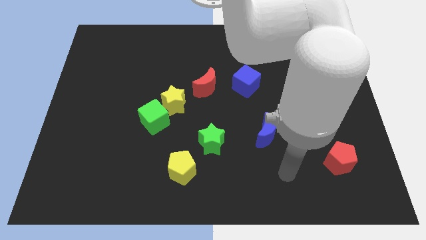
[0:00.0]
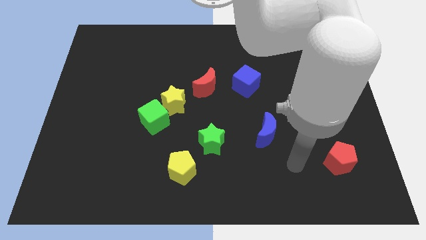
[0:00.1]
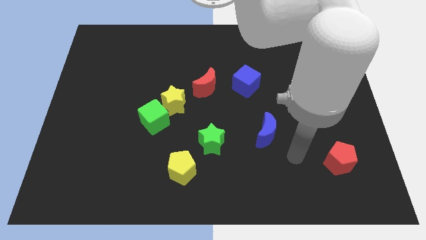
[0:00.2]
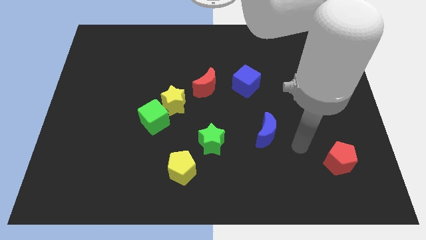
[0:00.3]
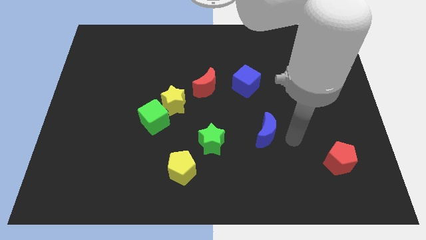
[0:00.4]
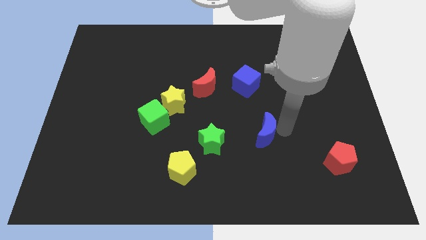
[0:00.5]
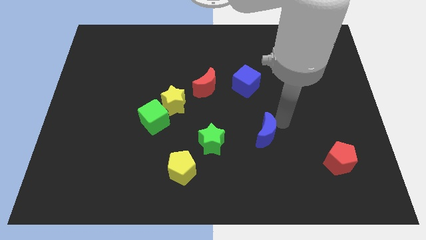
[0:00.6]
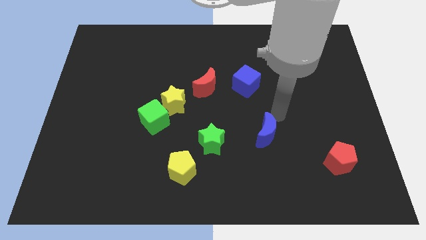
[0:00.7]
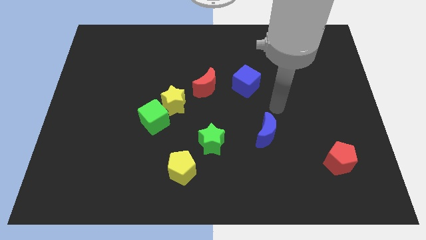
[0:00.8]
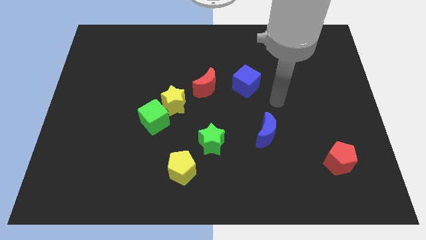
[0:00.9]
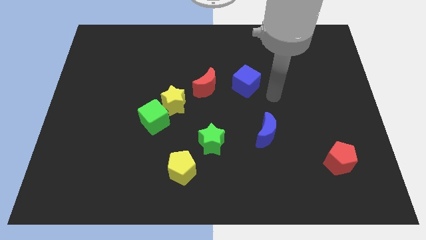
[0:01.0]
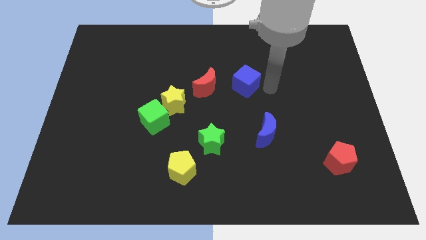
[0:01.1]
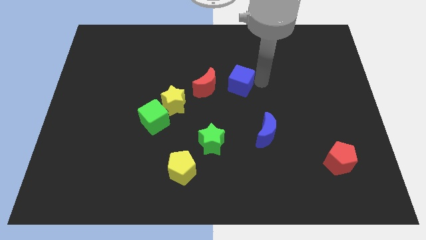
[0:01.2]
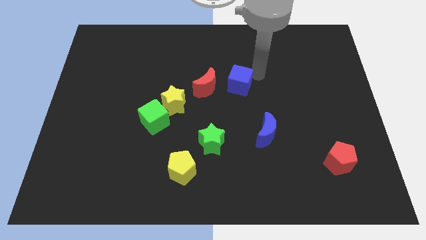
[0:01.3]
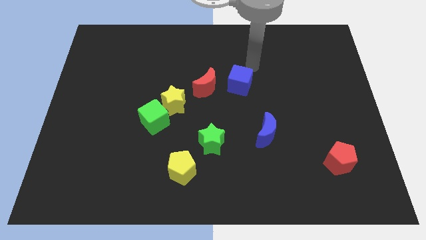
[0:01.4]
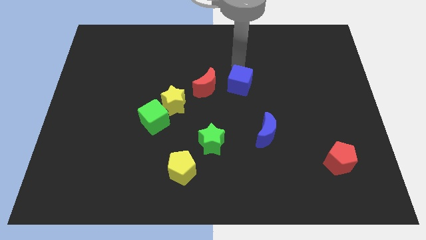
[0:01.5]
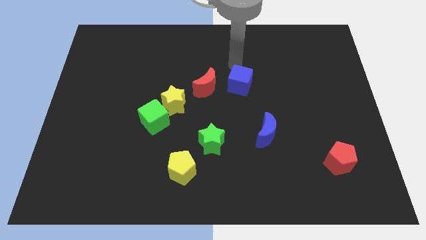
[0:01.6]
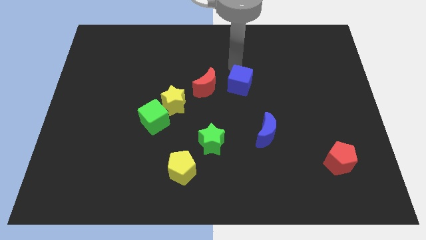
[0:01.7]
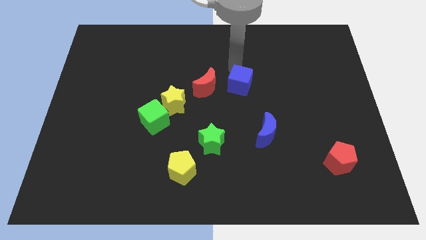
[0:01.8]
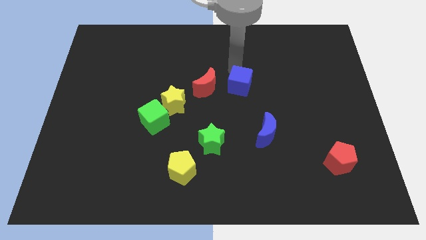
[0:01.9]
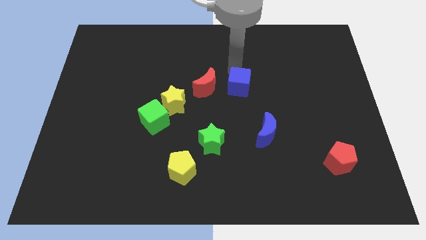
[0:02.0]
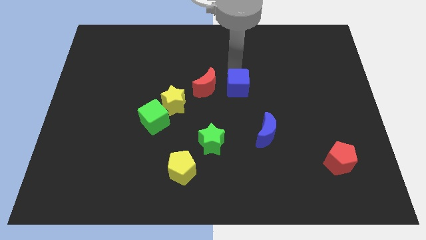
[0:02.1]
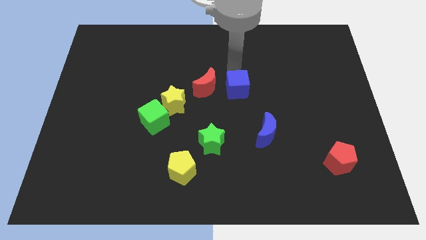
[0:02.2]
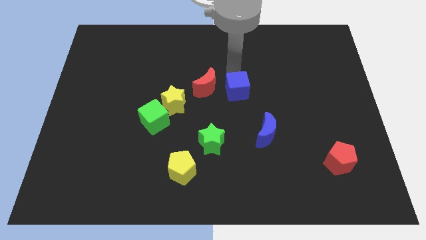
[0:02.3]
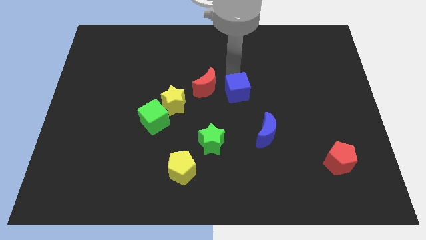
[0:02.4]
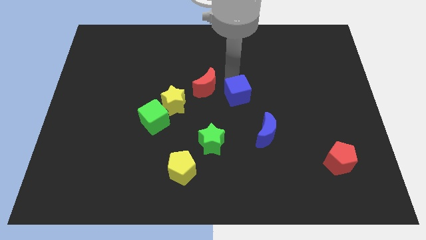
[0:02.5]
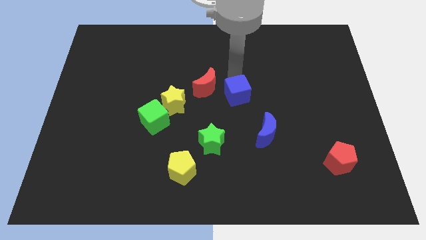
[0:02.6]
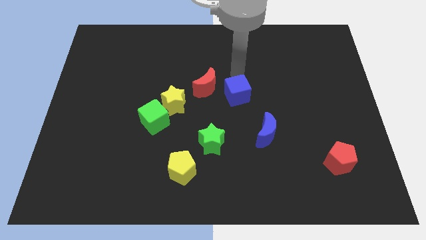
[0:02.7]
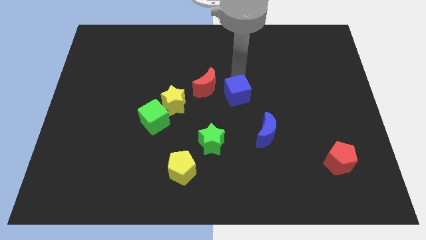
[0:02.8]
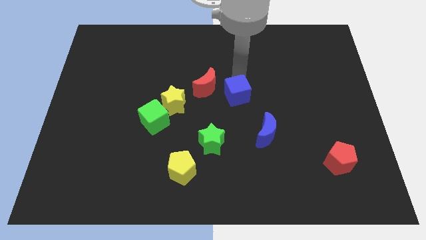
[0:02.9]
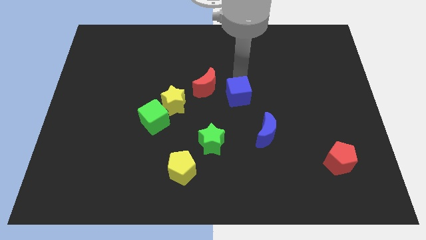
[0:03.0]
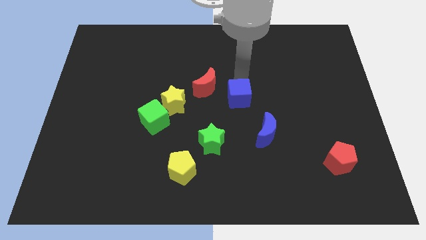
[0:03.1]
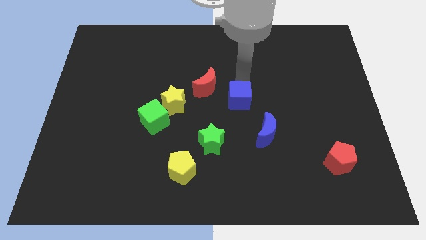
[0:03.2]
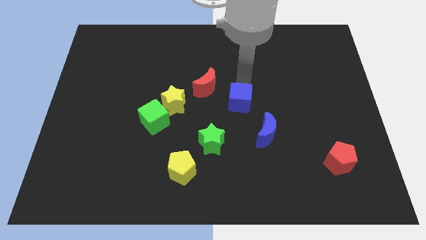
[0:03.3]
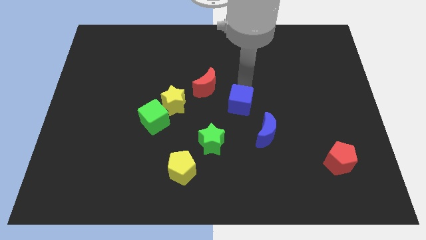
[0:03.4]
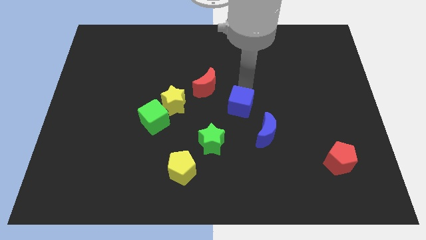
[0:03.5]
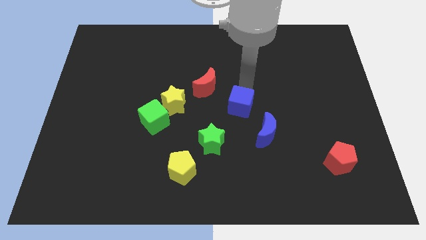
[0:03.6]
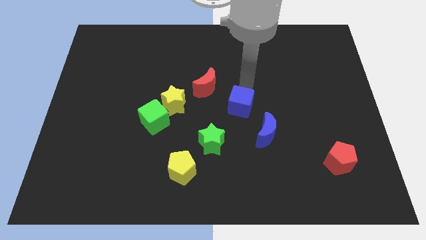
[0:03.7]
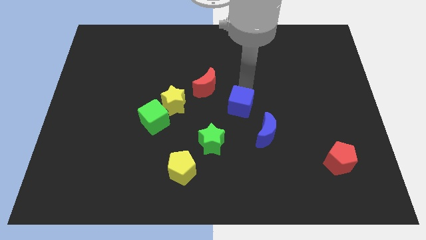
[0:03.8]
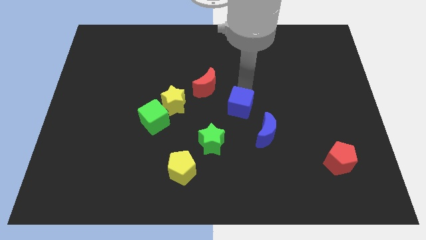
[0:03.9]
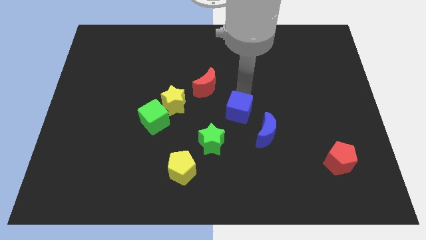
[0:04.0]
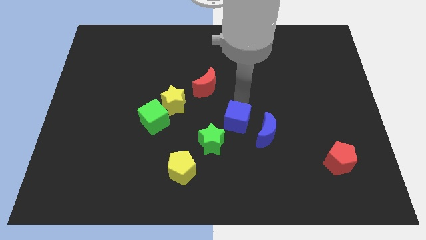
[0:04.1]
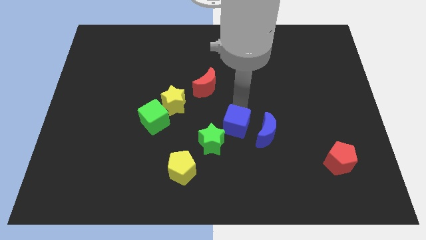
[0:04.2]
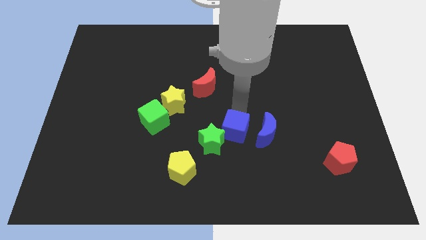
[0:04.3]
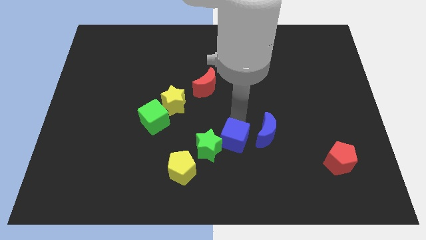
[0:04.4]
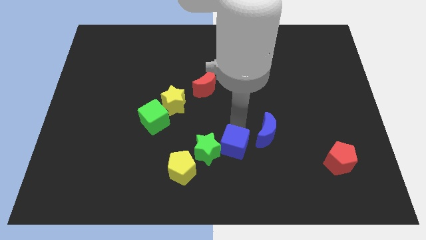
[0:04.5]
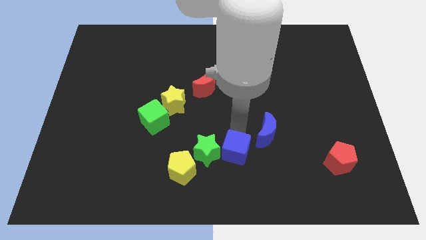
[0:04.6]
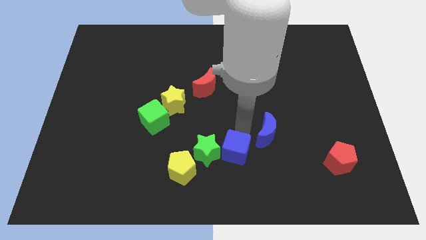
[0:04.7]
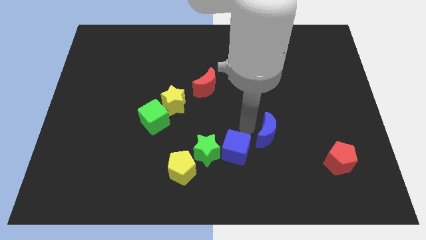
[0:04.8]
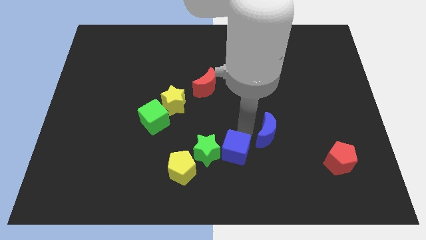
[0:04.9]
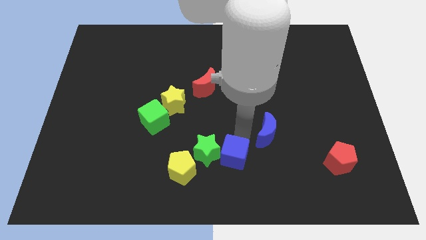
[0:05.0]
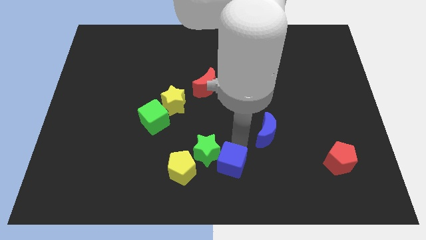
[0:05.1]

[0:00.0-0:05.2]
push the blue cube to the bottom side

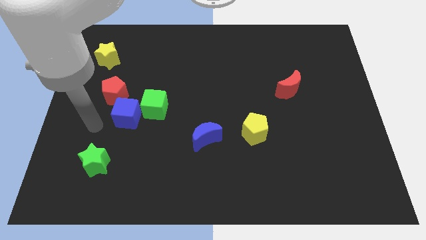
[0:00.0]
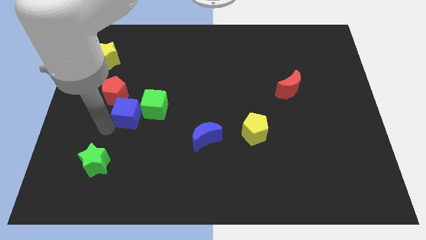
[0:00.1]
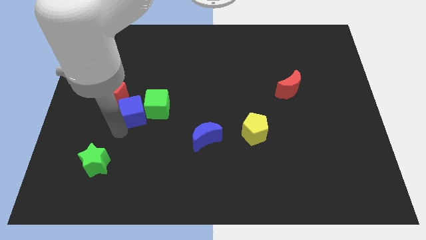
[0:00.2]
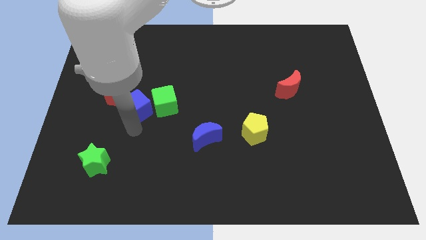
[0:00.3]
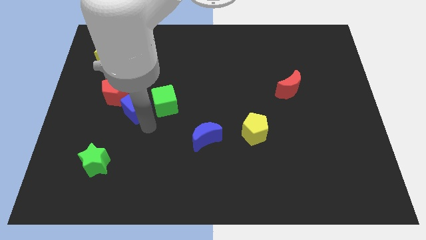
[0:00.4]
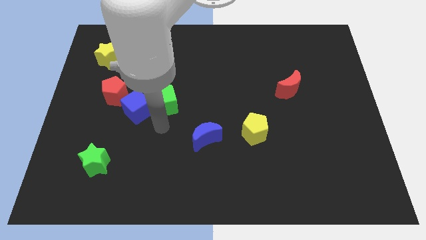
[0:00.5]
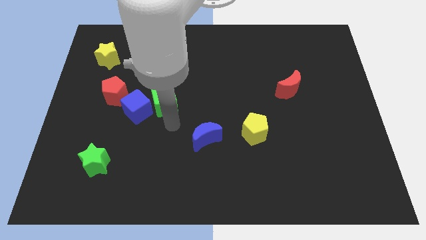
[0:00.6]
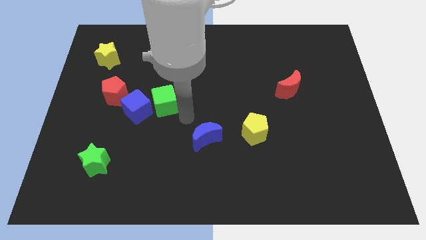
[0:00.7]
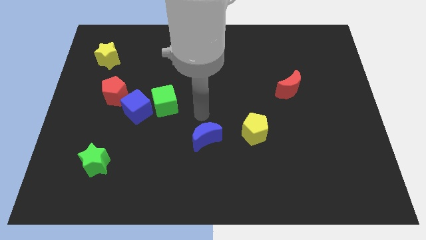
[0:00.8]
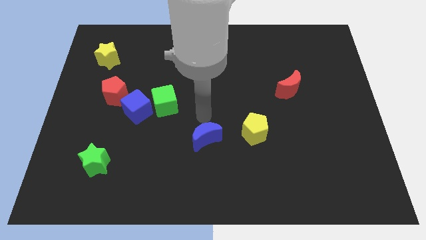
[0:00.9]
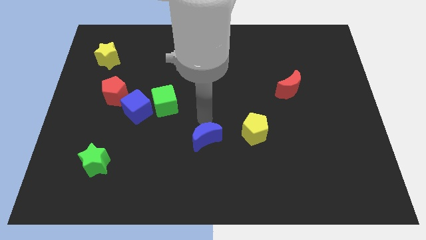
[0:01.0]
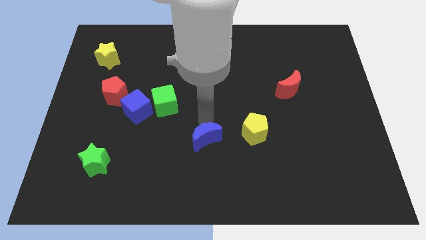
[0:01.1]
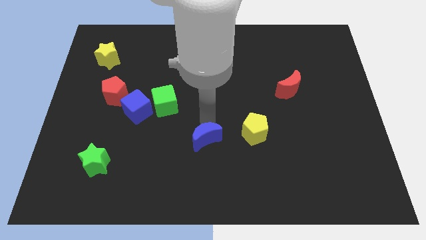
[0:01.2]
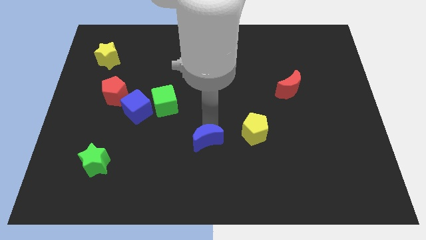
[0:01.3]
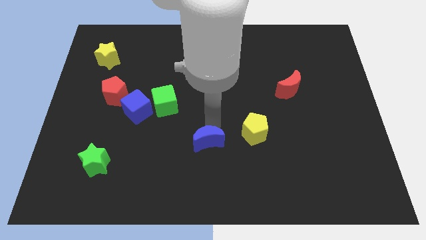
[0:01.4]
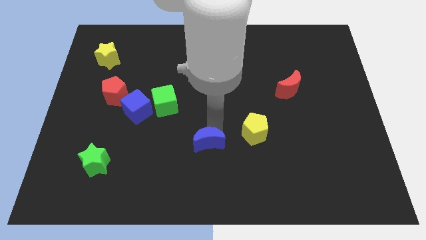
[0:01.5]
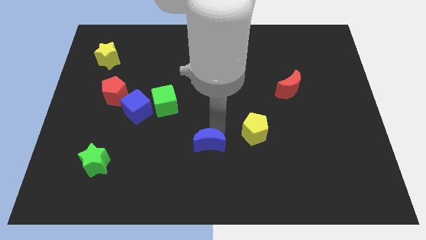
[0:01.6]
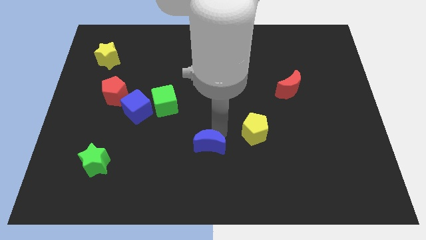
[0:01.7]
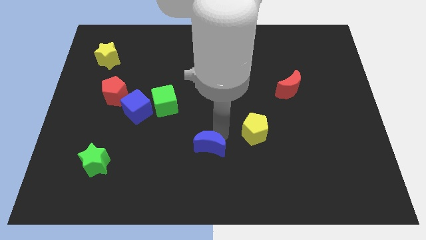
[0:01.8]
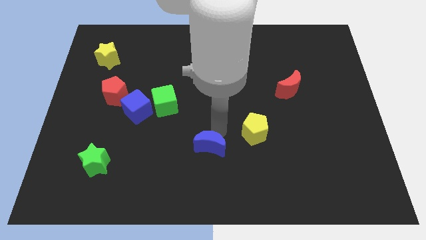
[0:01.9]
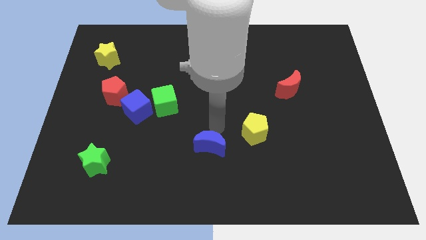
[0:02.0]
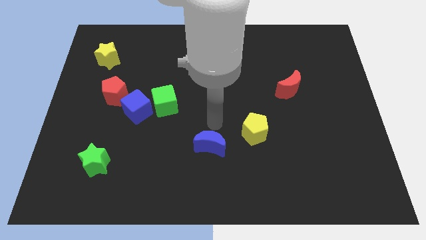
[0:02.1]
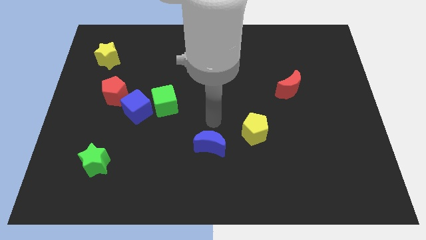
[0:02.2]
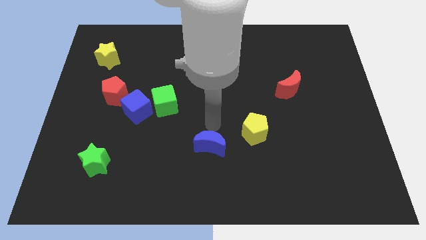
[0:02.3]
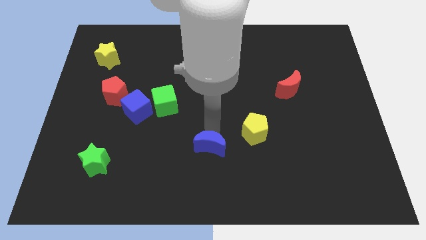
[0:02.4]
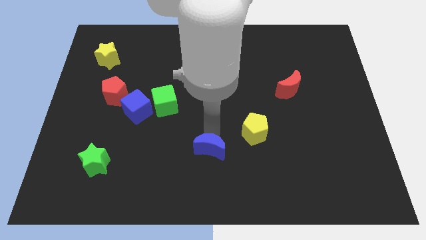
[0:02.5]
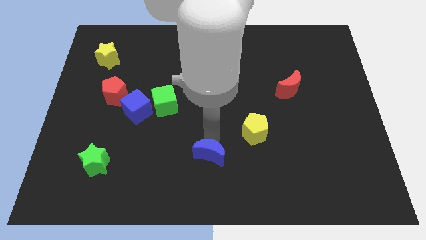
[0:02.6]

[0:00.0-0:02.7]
push the blue moon to the bottom side
